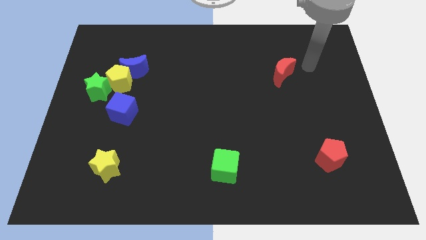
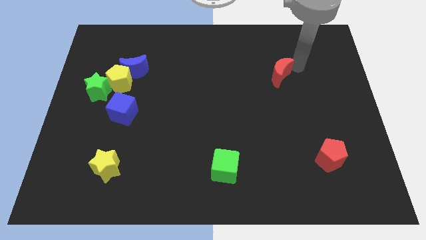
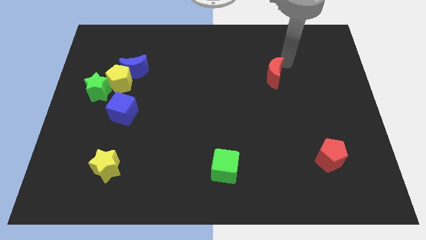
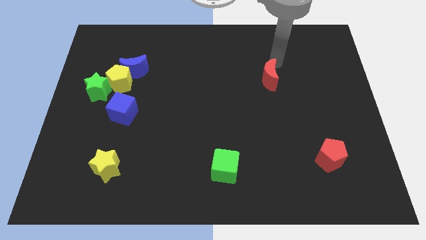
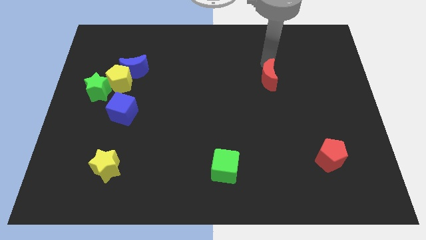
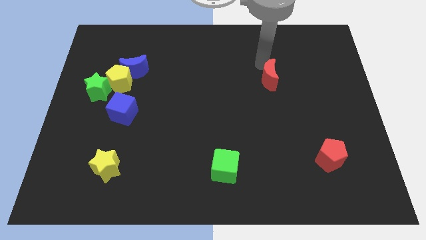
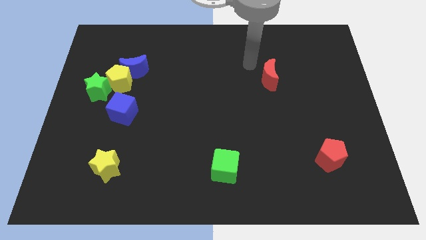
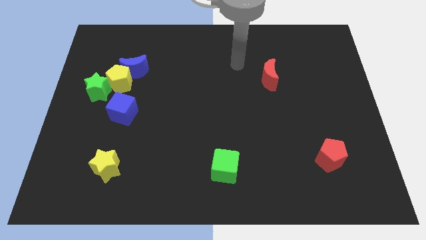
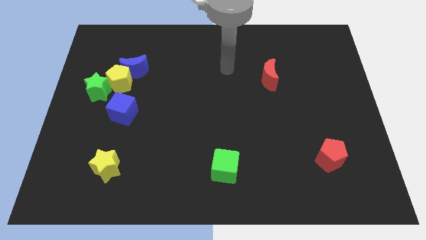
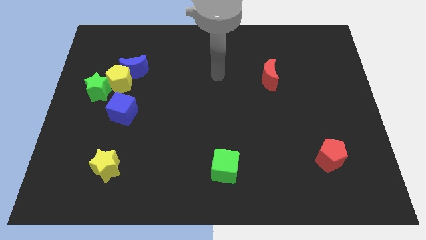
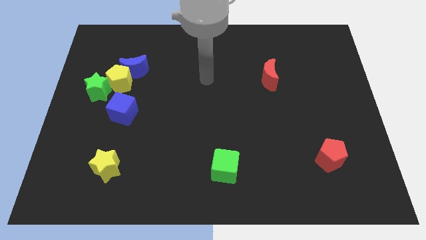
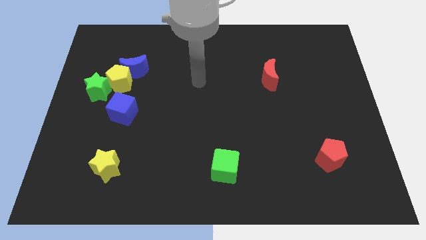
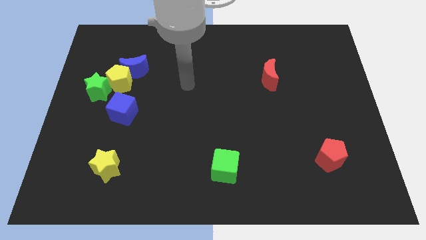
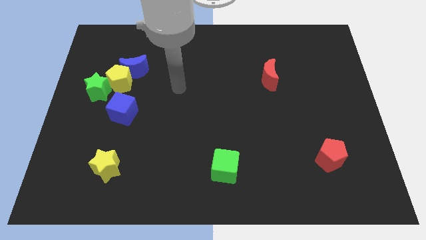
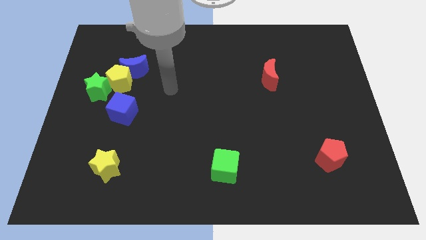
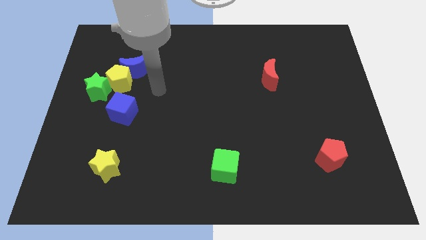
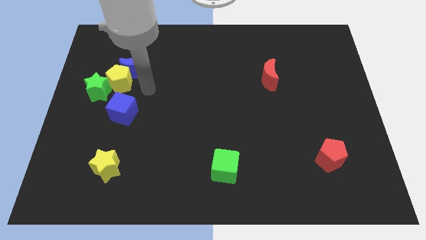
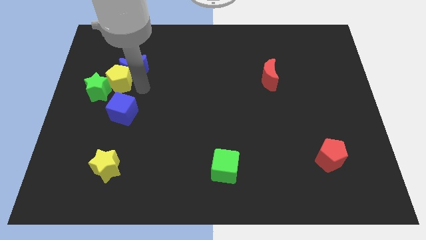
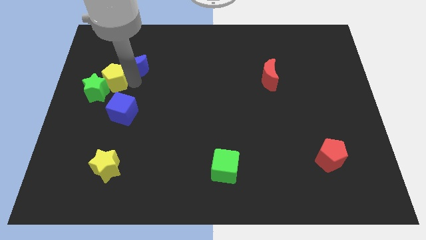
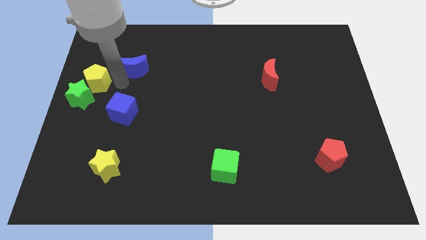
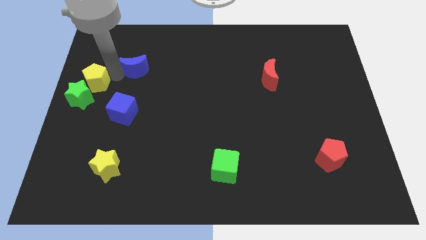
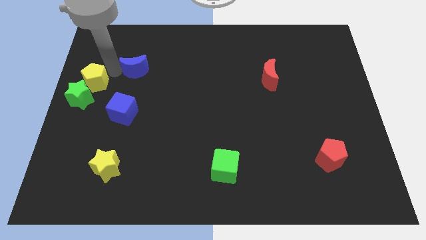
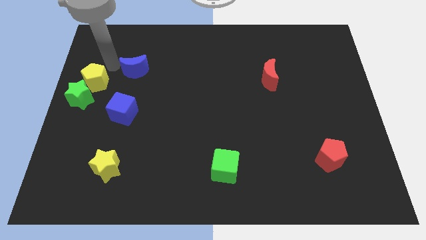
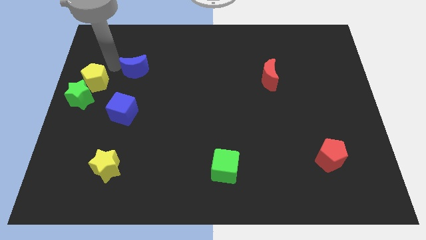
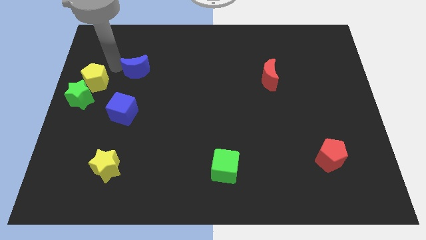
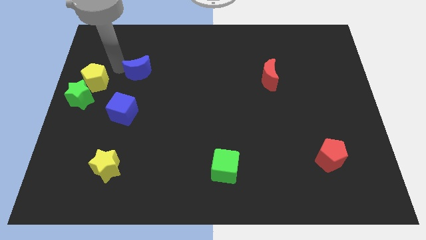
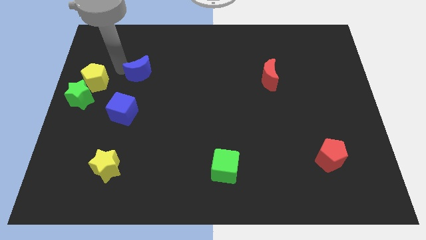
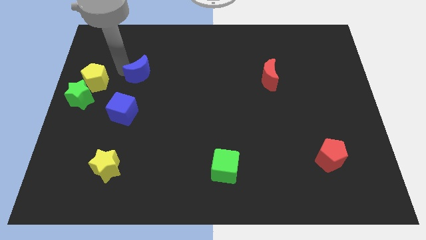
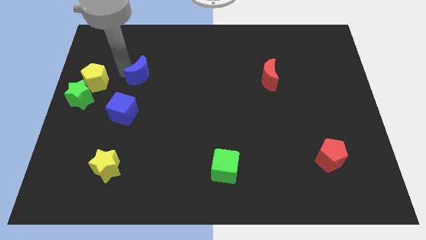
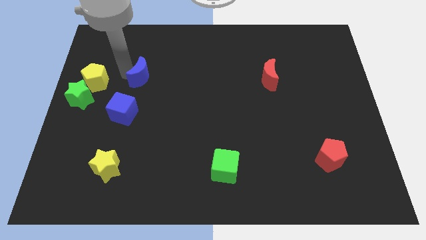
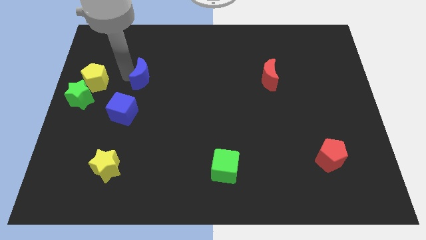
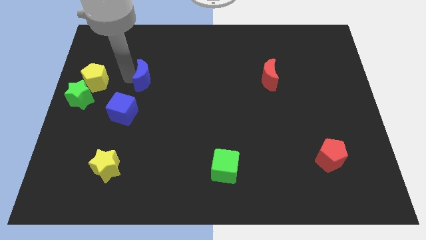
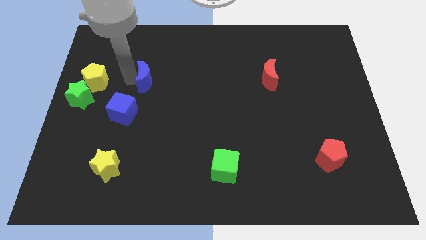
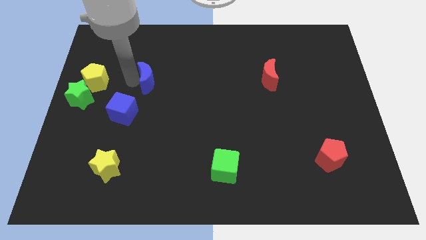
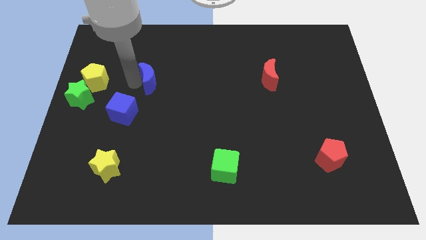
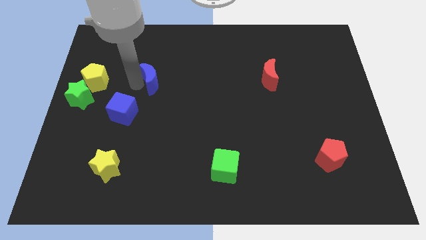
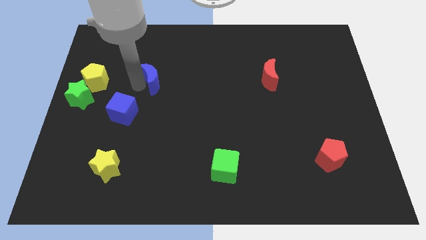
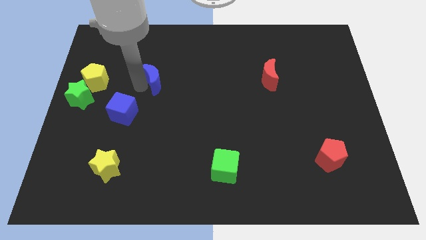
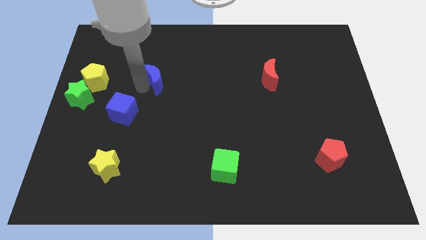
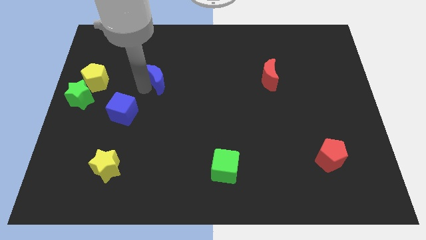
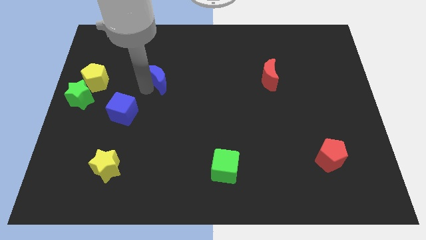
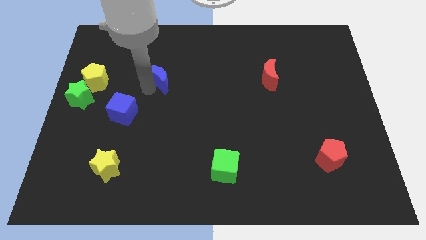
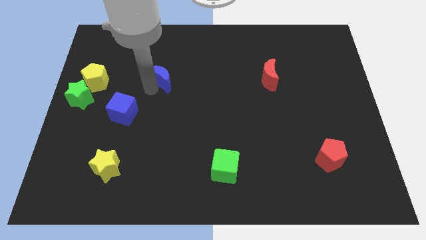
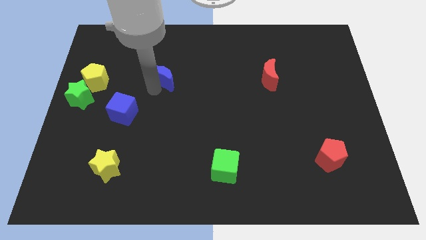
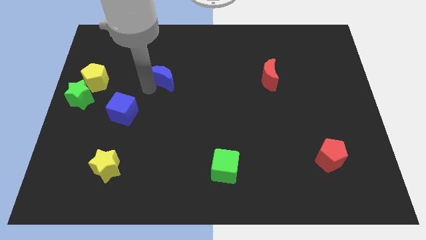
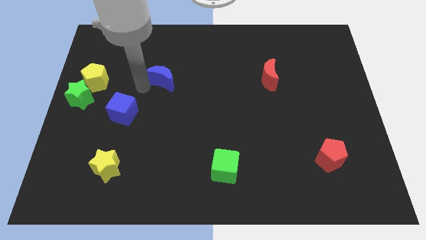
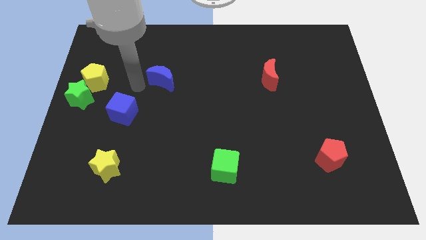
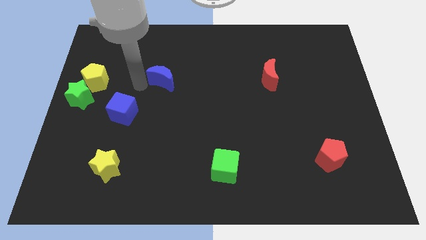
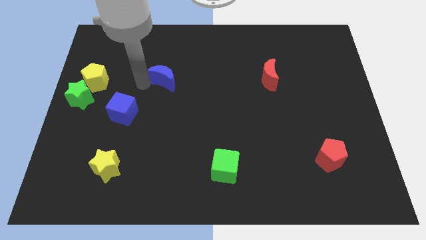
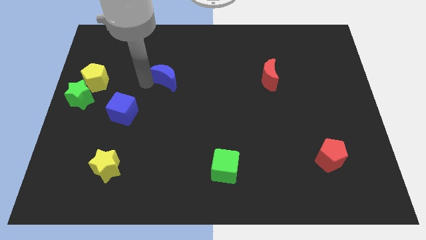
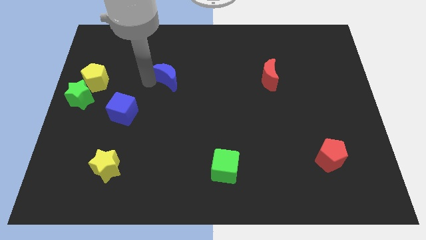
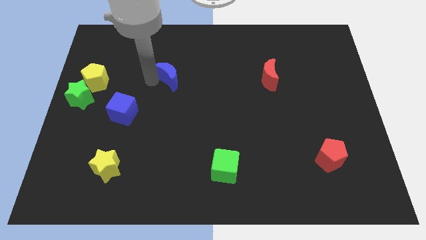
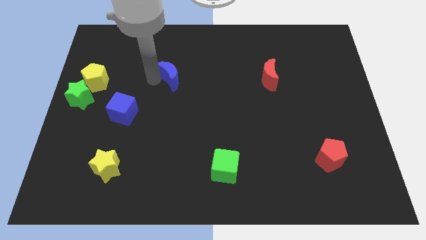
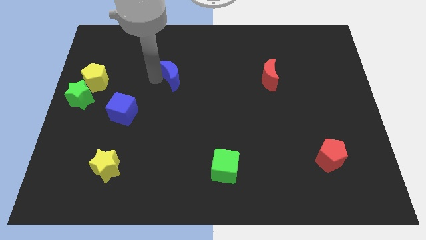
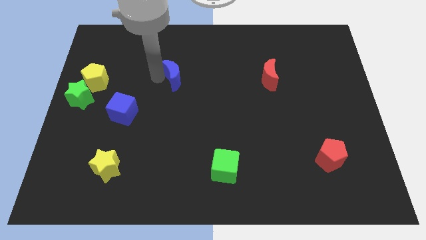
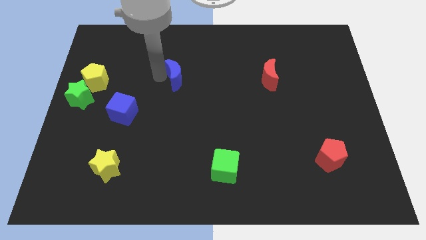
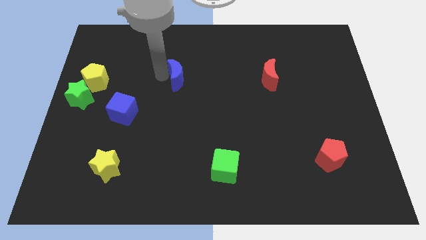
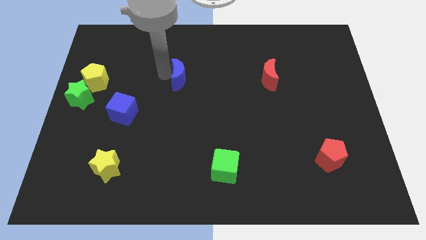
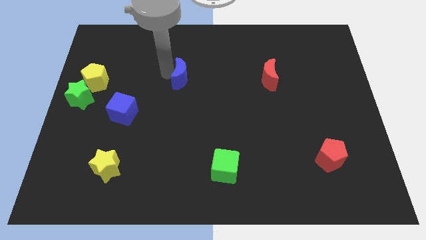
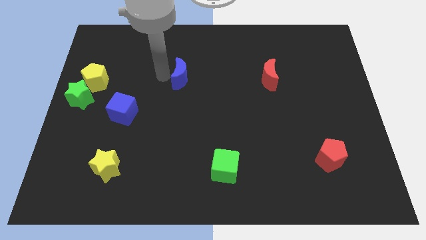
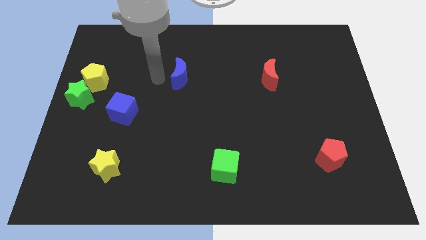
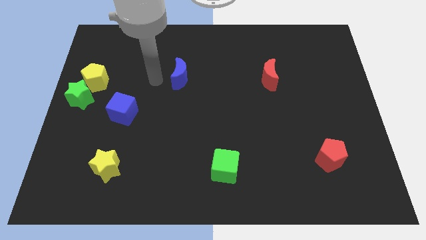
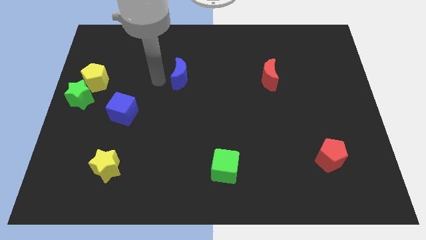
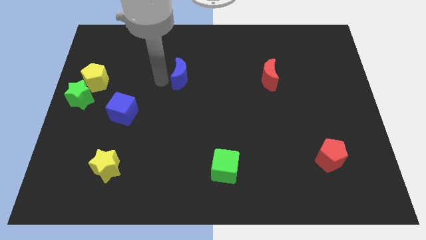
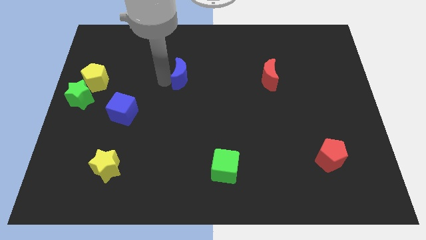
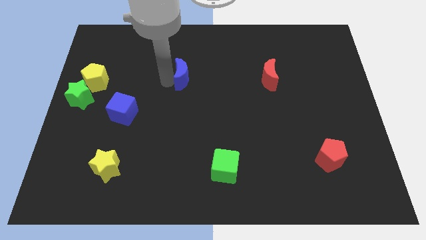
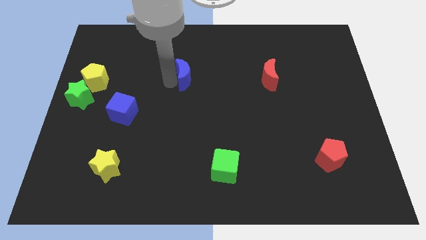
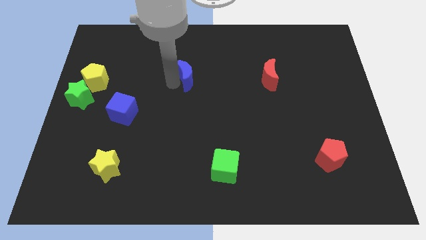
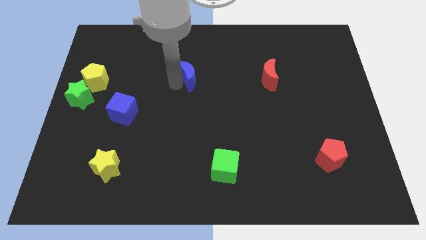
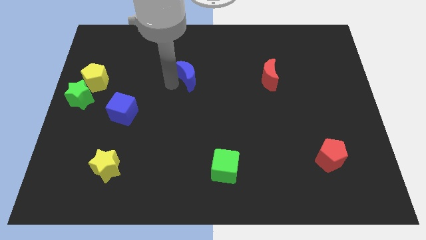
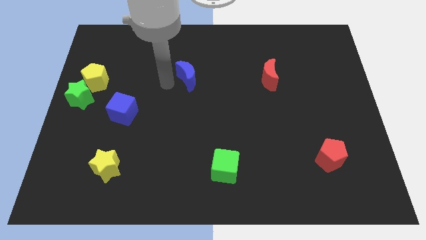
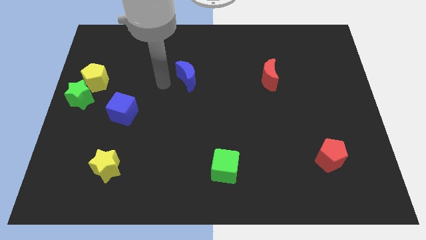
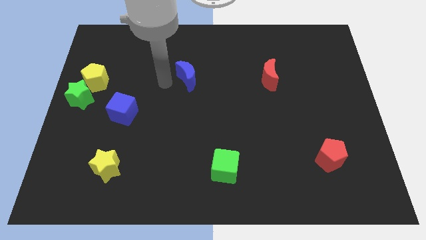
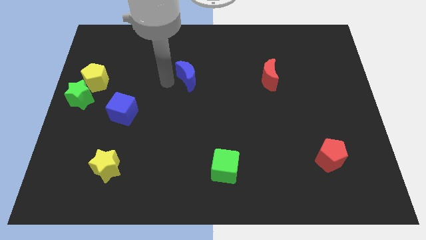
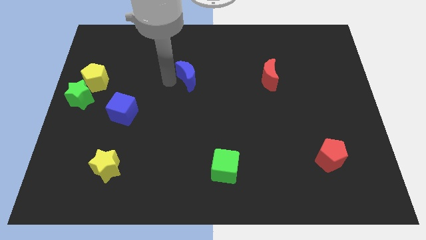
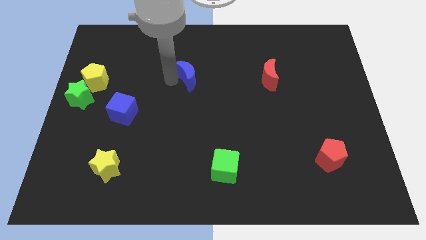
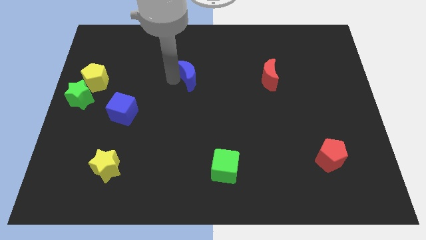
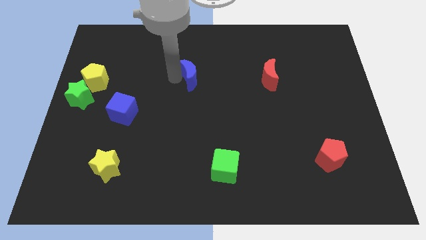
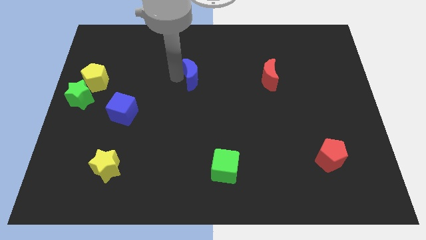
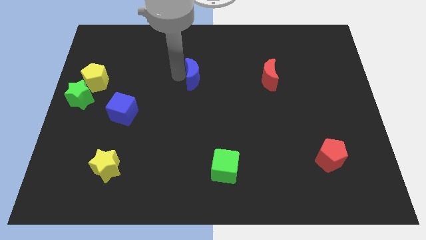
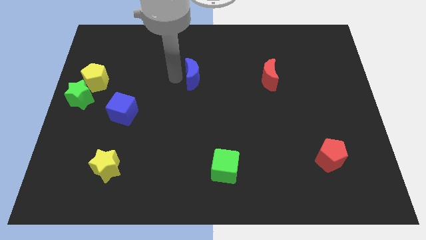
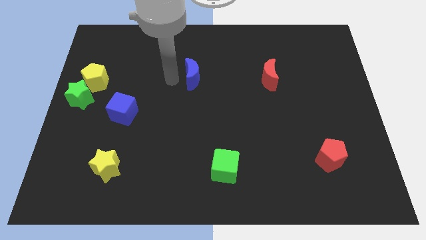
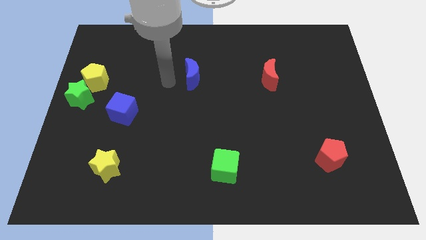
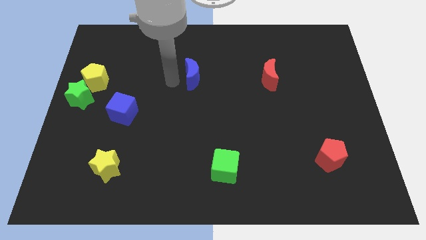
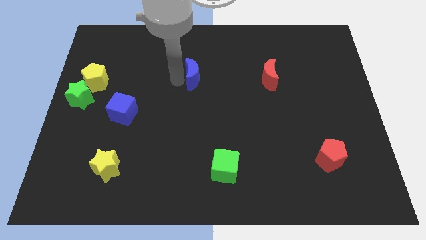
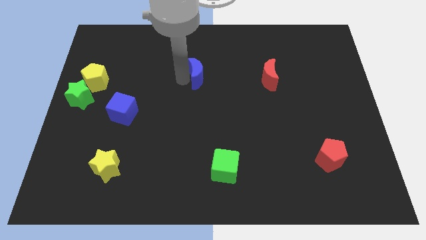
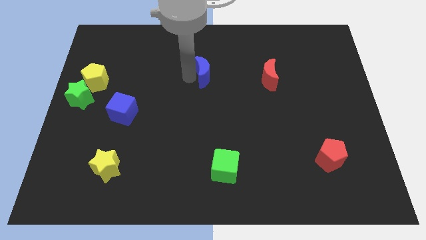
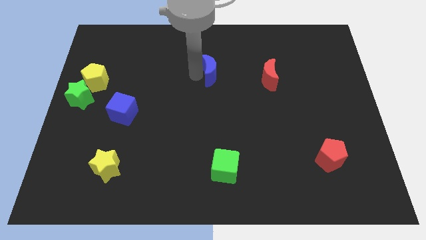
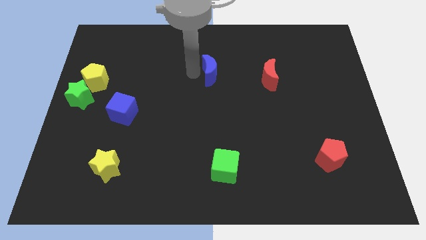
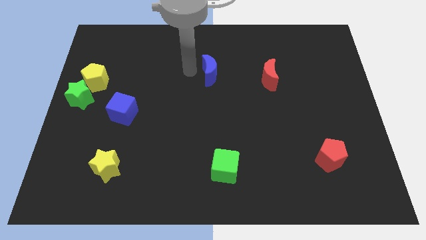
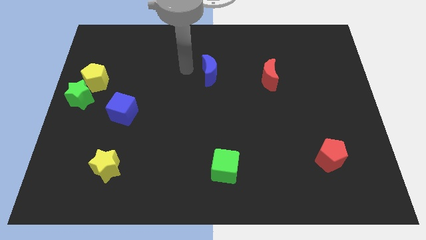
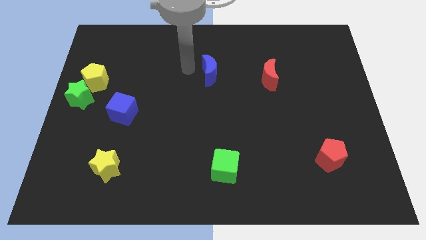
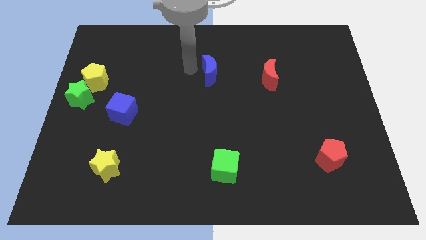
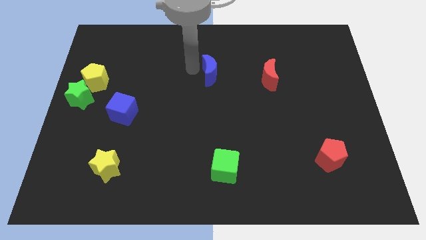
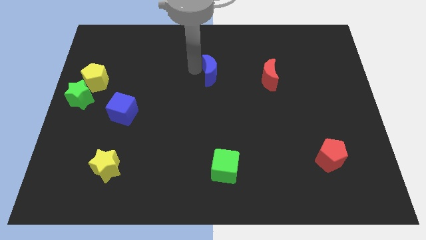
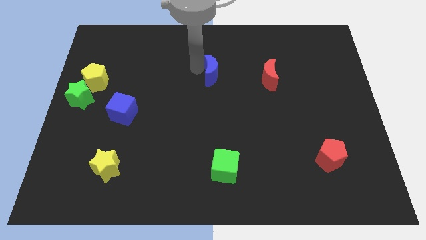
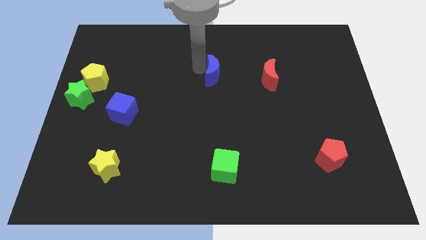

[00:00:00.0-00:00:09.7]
slide the blue moon to the right
